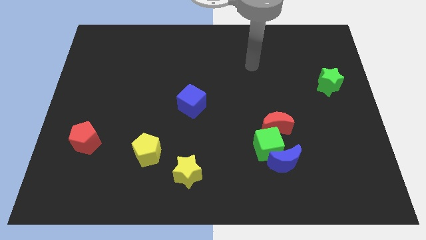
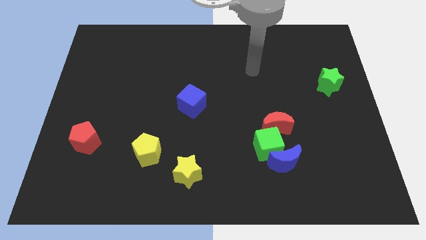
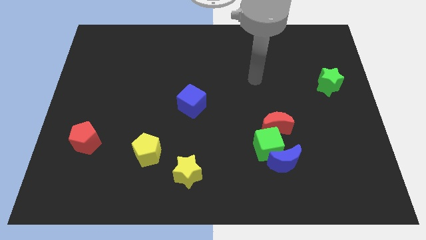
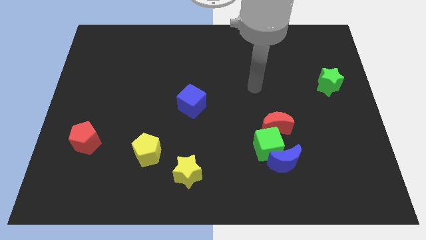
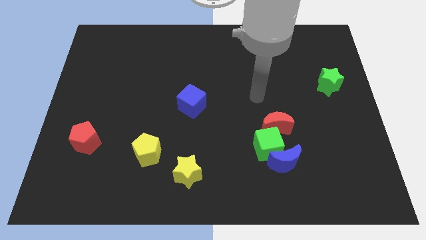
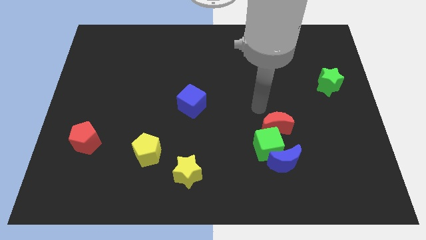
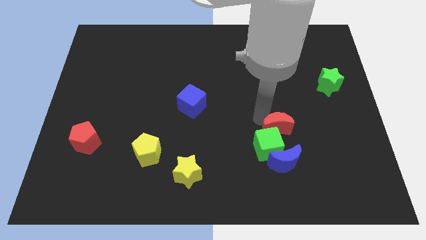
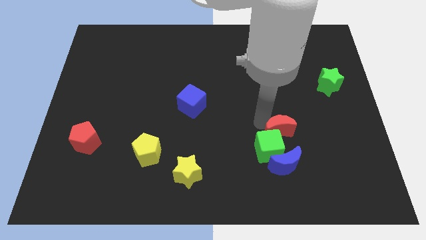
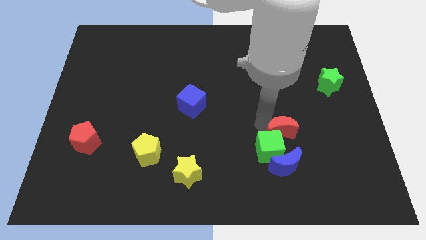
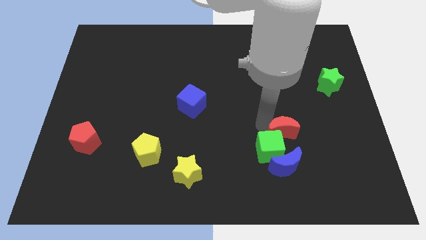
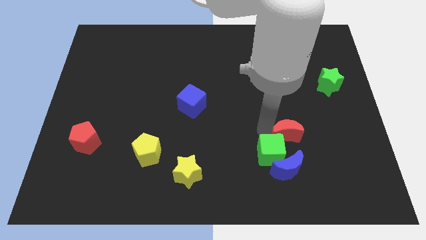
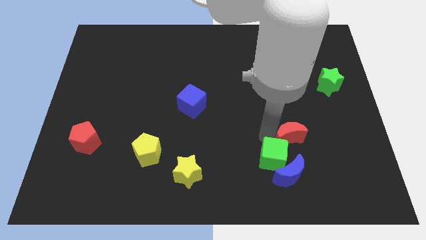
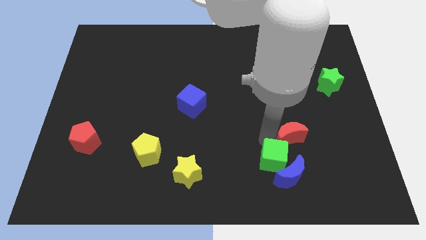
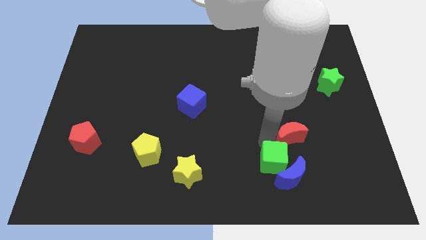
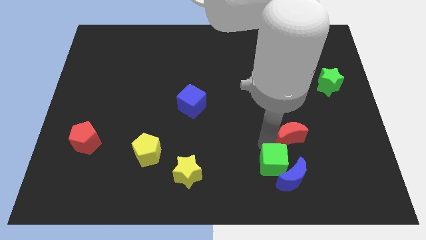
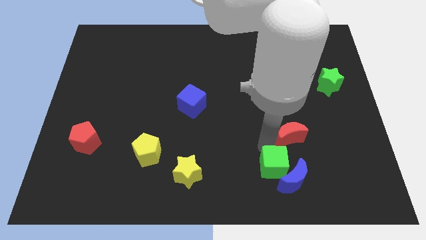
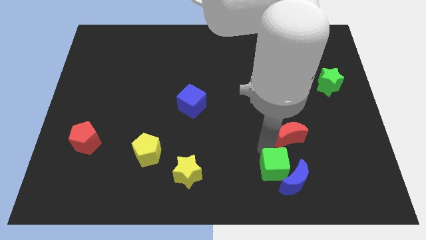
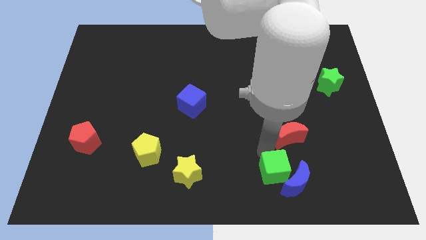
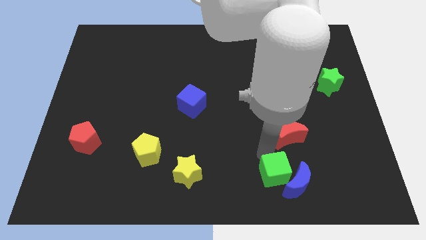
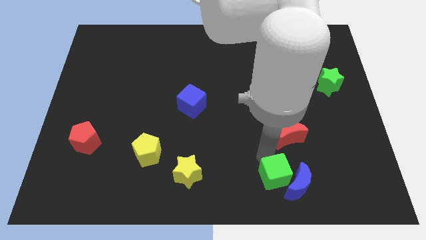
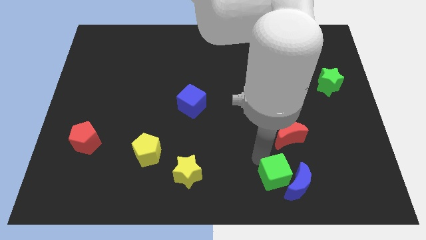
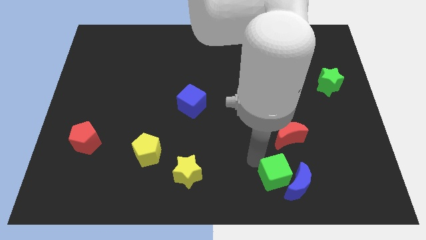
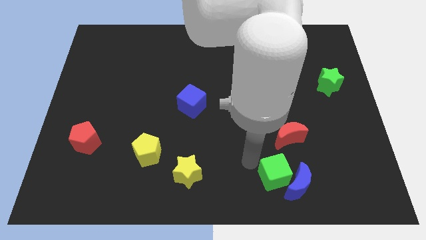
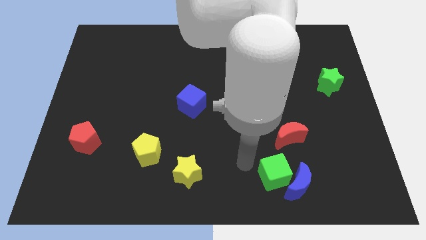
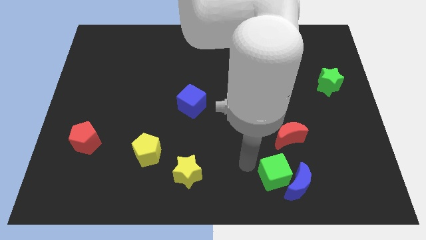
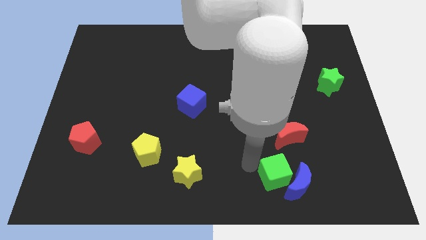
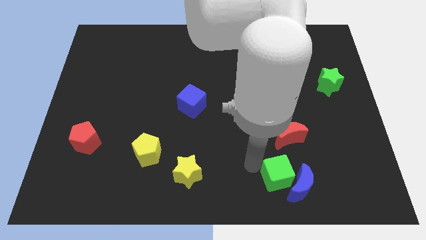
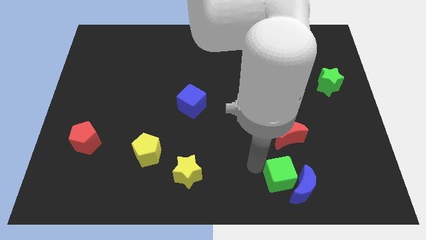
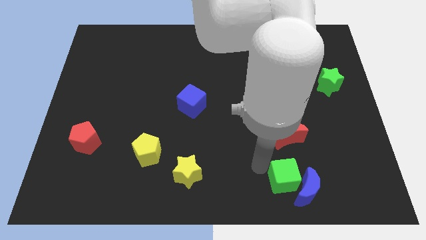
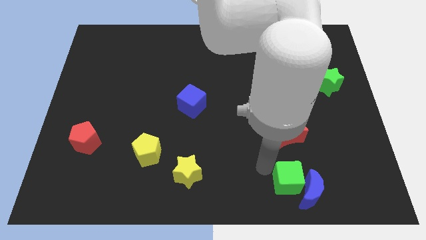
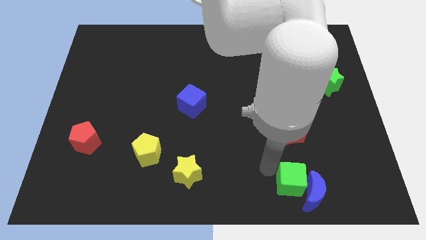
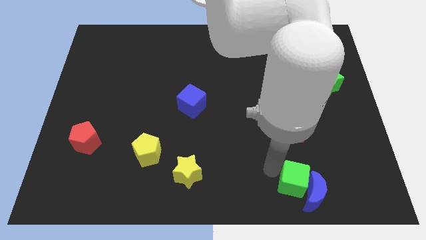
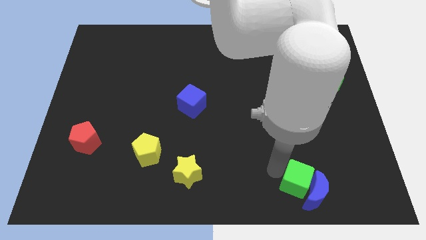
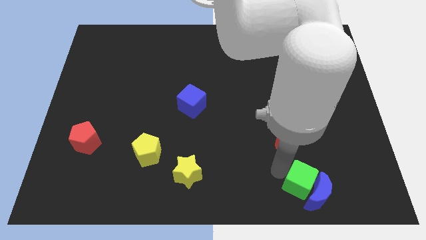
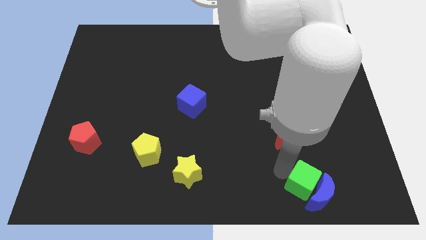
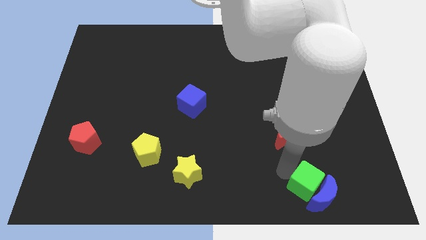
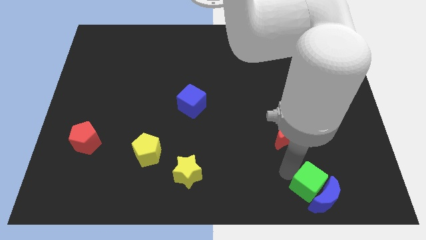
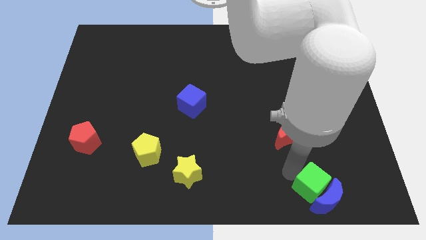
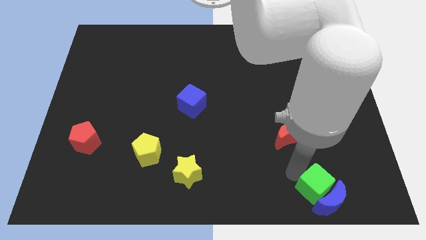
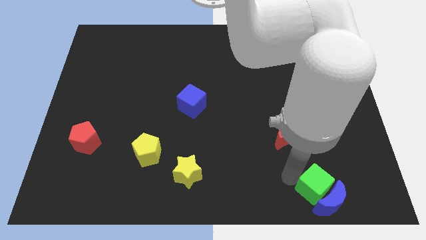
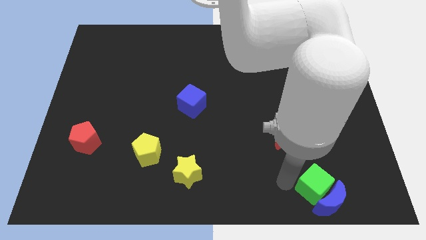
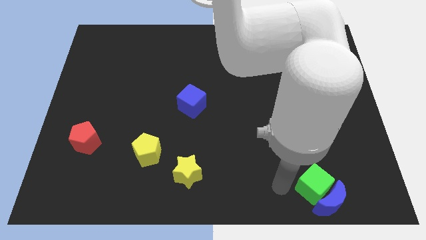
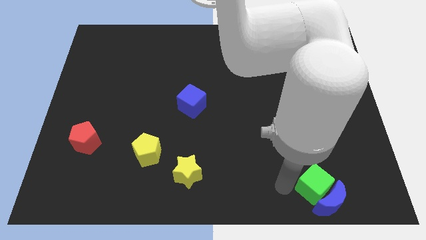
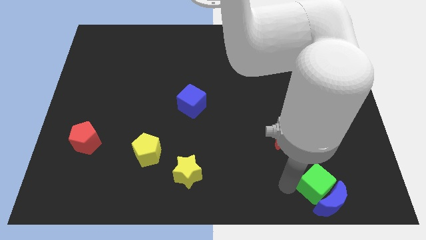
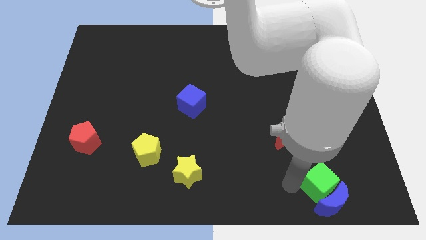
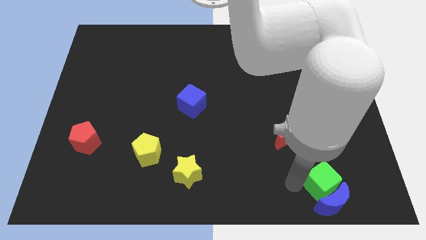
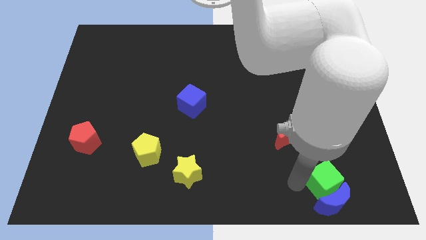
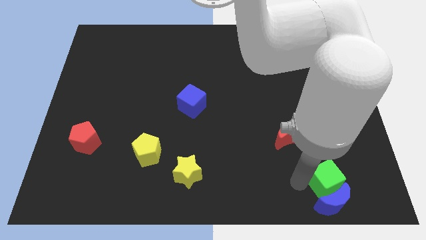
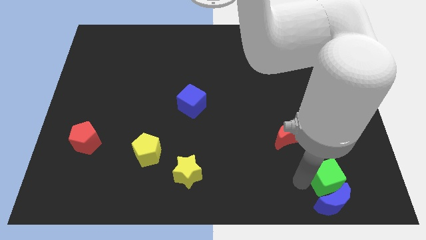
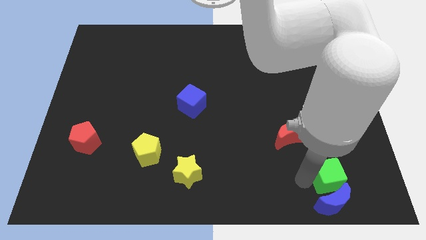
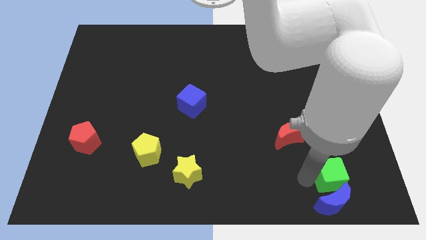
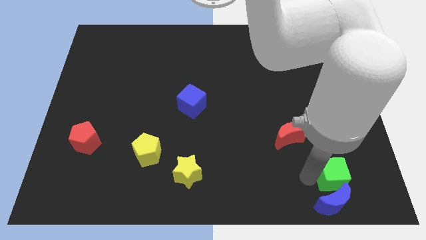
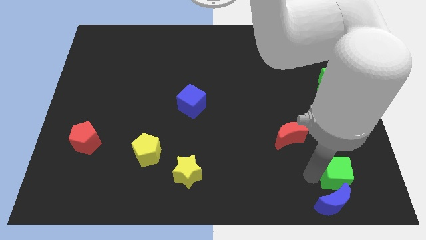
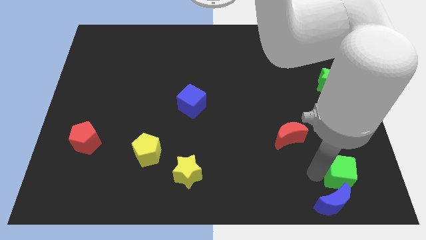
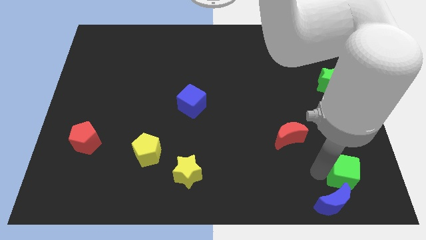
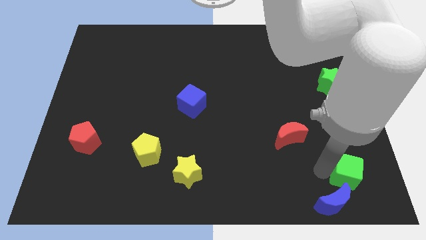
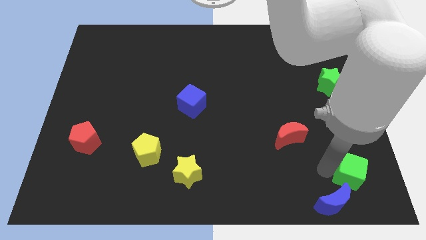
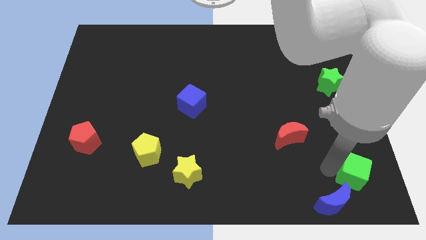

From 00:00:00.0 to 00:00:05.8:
put the green cube to the bottom right of the board

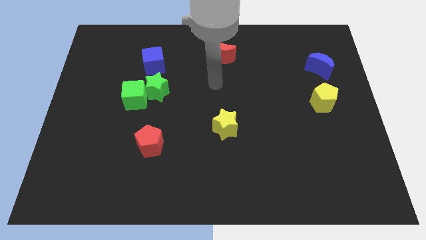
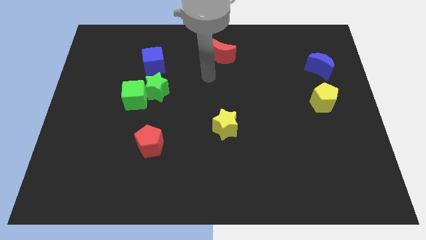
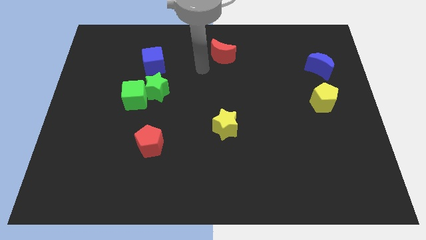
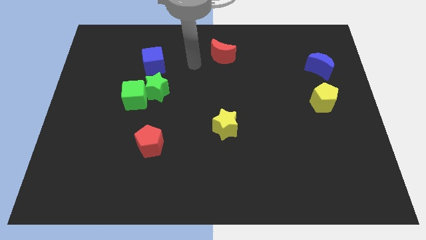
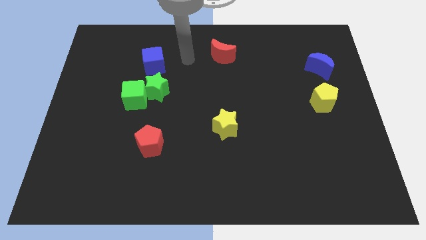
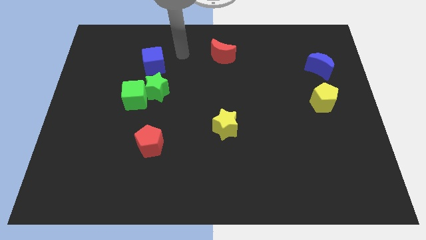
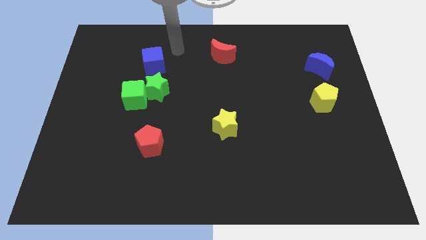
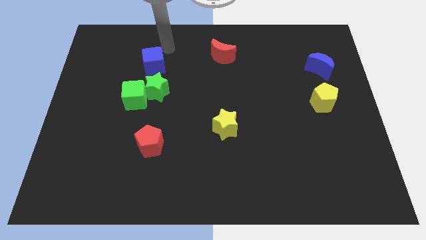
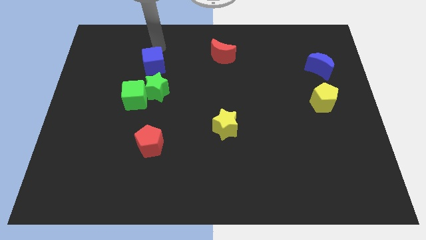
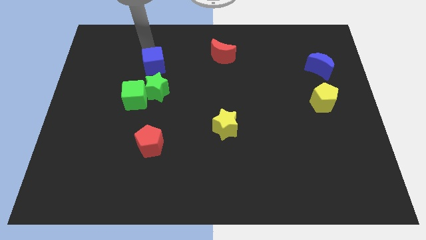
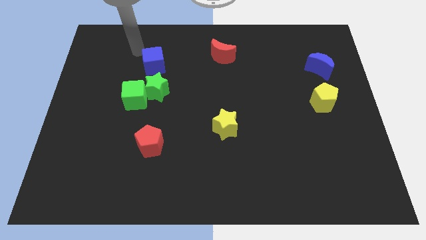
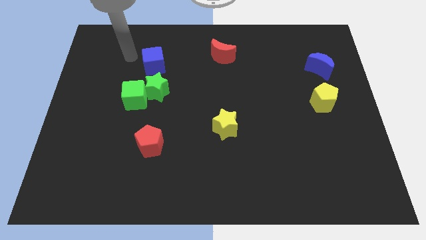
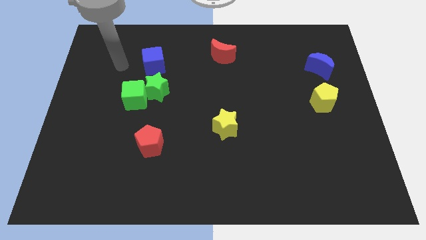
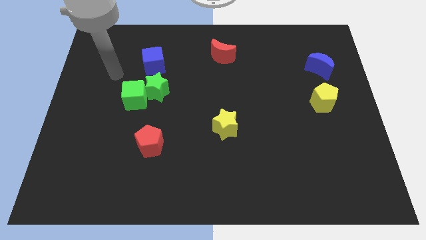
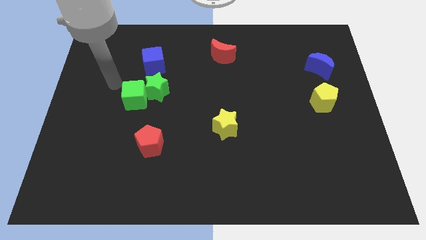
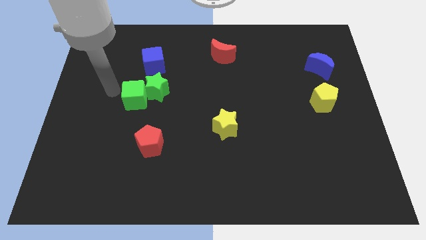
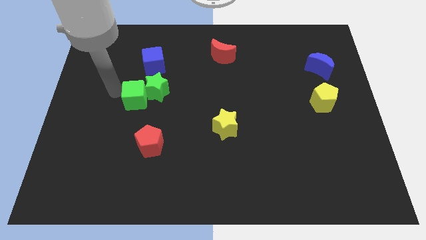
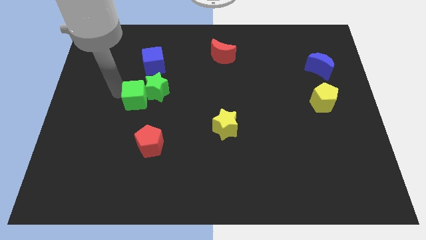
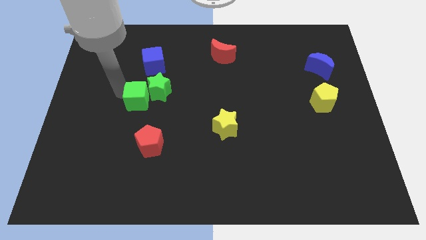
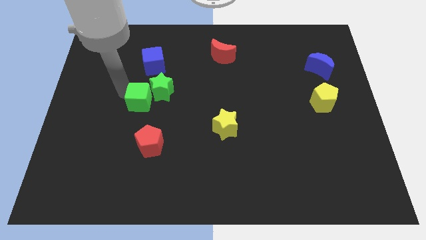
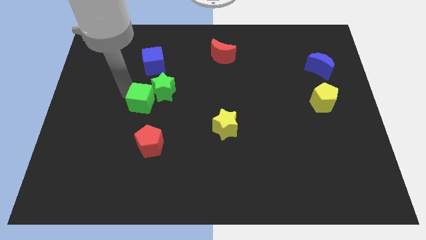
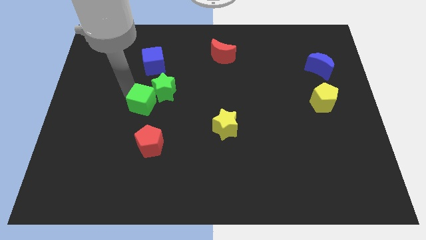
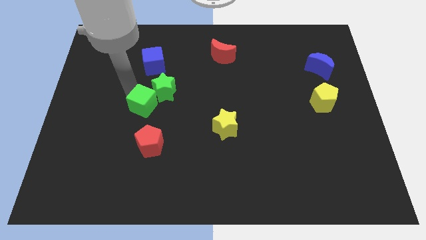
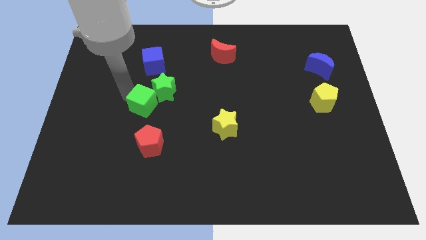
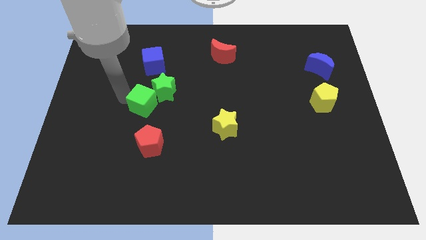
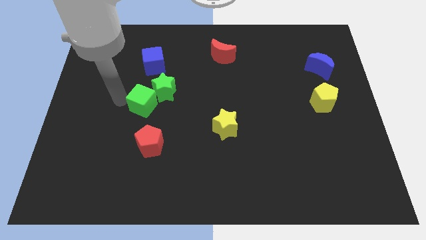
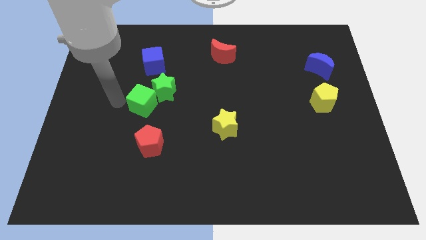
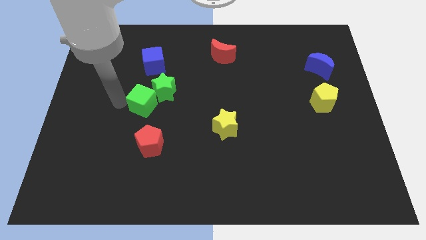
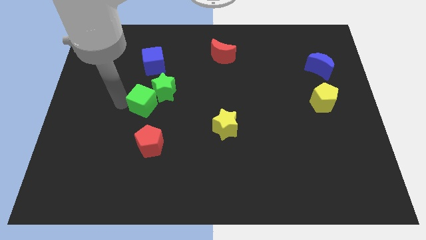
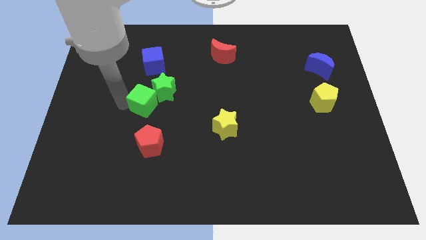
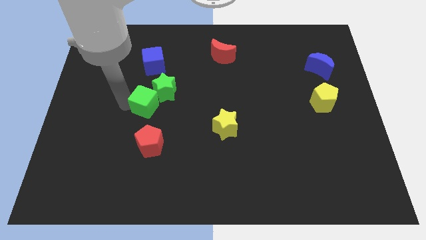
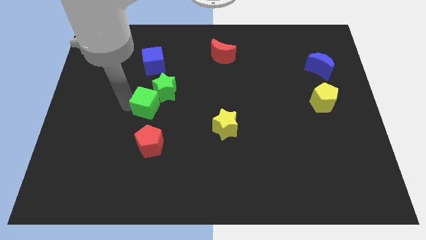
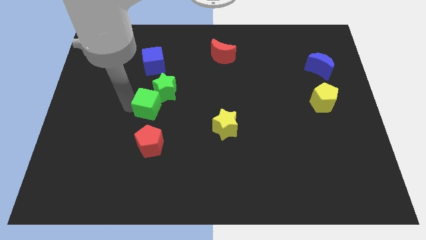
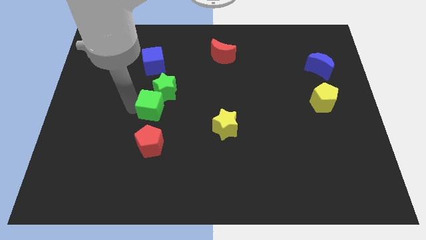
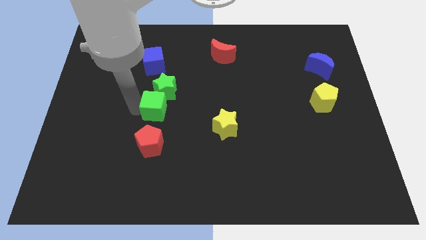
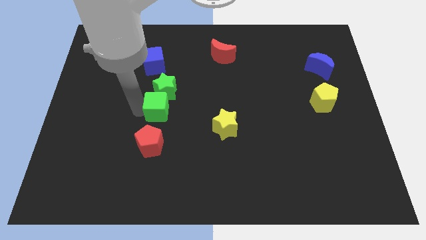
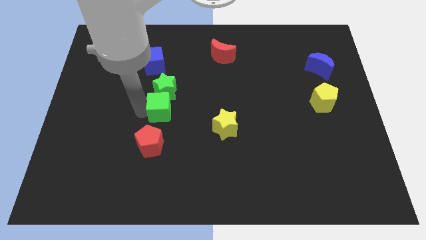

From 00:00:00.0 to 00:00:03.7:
move the green cube to the middle of the board
